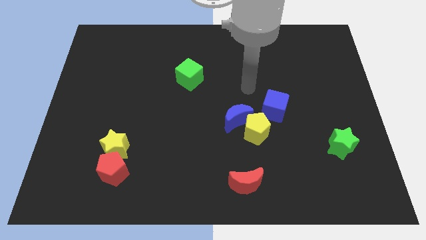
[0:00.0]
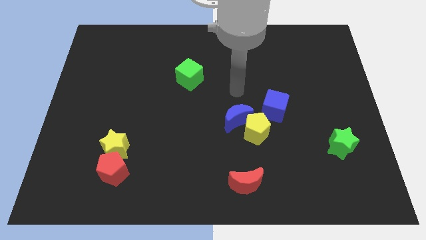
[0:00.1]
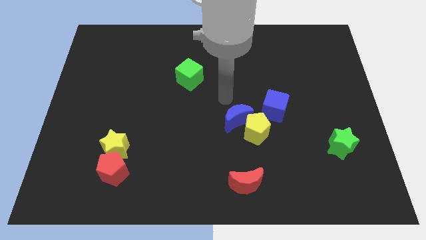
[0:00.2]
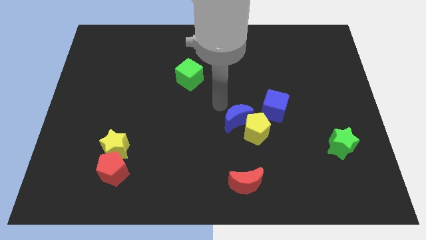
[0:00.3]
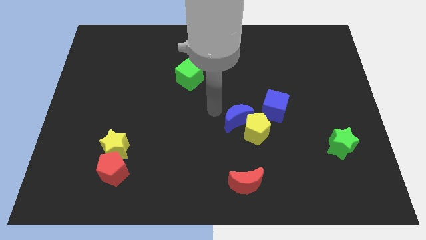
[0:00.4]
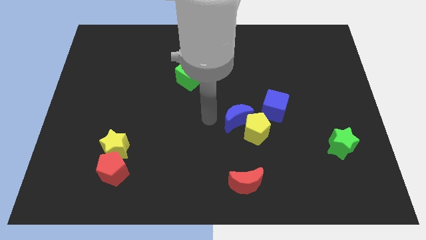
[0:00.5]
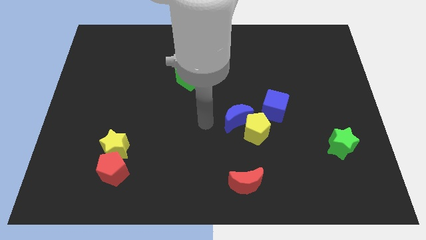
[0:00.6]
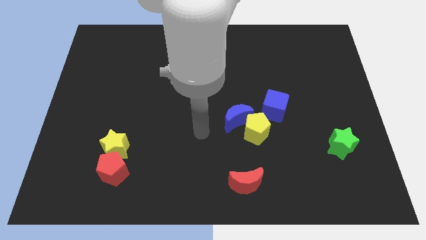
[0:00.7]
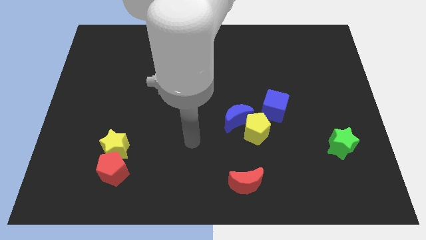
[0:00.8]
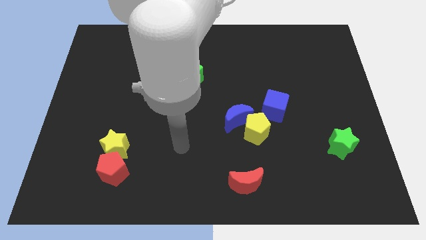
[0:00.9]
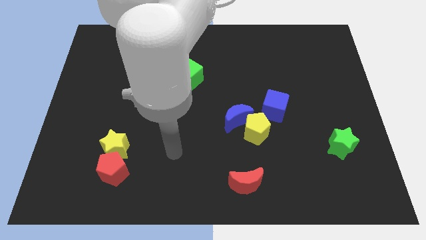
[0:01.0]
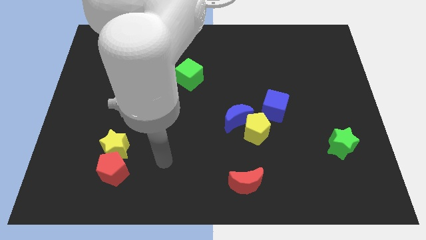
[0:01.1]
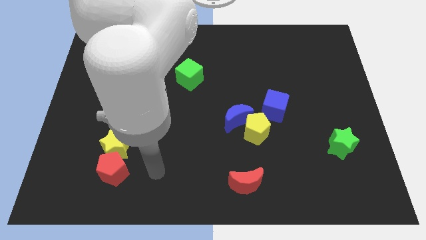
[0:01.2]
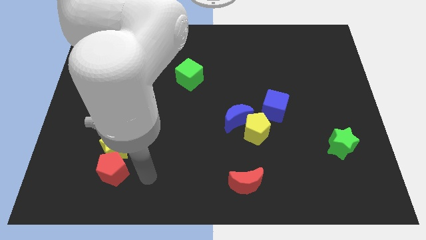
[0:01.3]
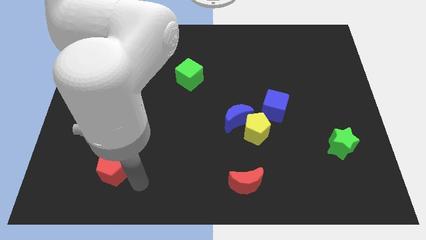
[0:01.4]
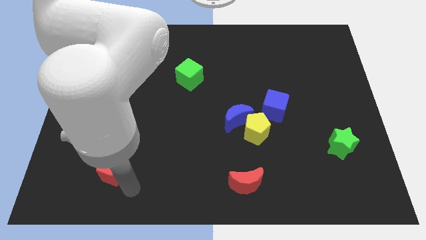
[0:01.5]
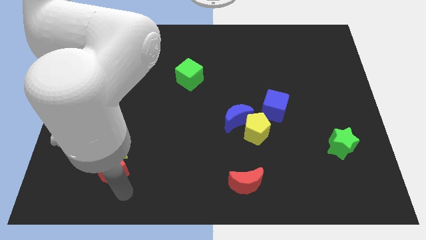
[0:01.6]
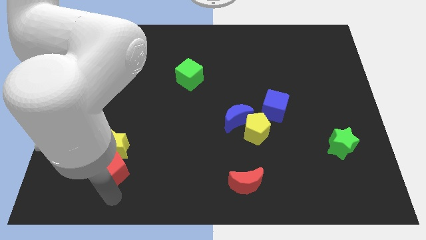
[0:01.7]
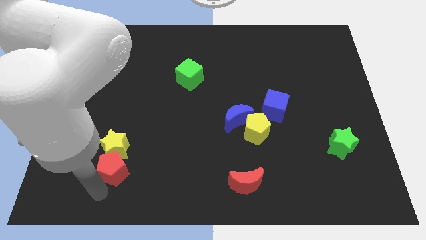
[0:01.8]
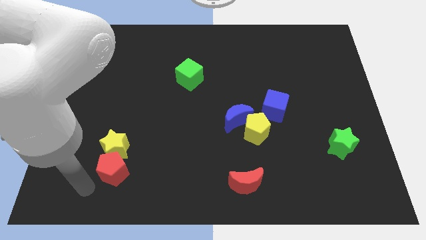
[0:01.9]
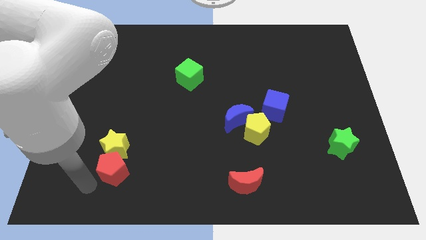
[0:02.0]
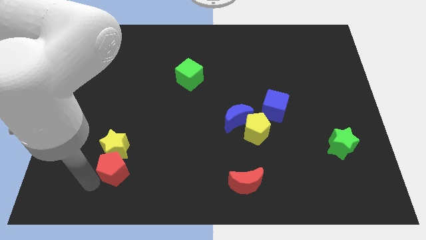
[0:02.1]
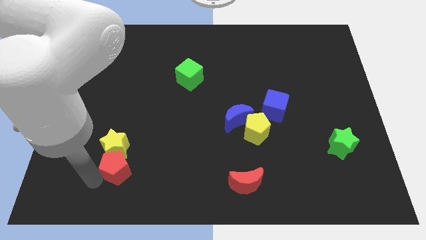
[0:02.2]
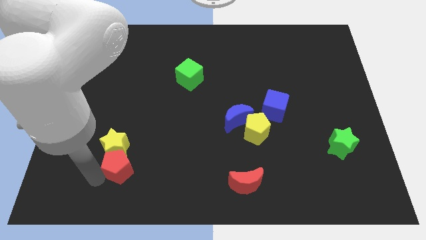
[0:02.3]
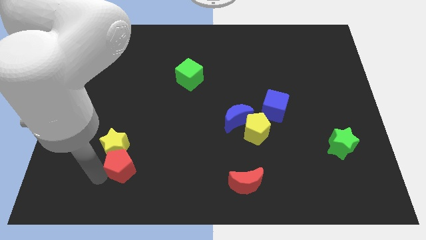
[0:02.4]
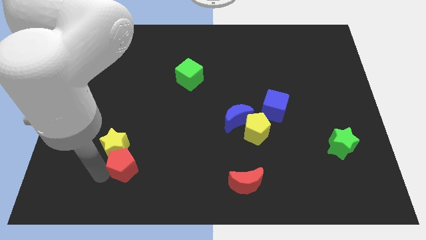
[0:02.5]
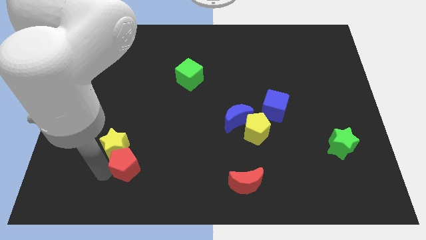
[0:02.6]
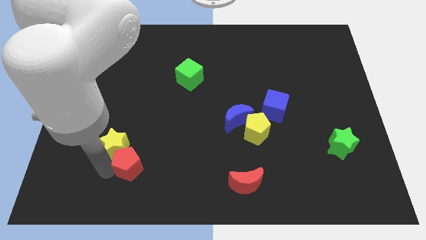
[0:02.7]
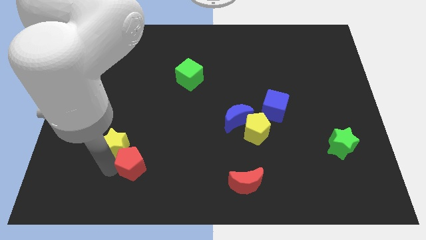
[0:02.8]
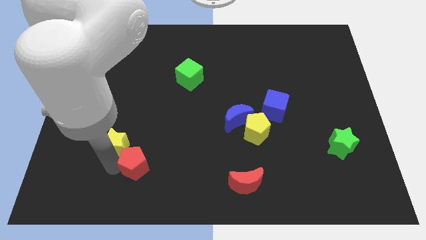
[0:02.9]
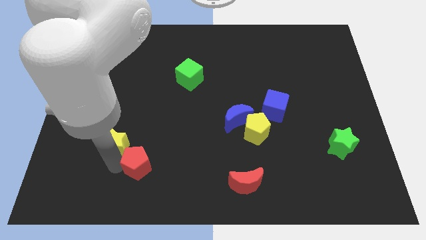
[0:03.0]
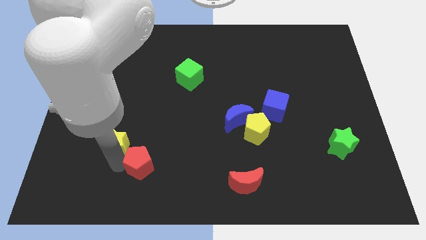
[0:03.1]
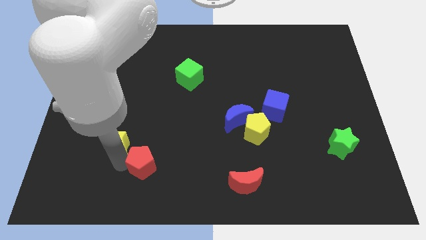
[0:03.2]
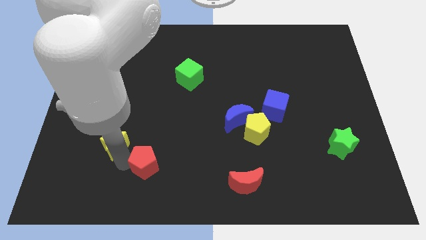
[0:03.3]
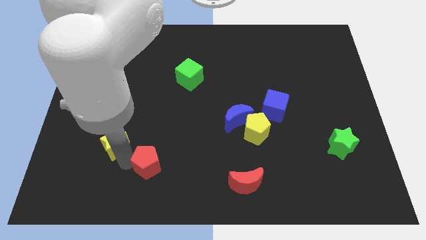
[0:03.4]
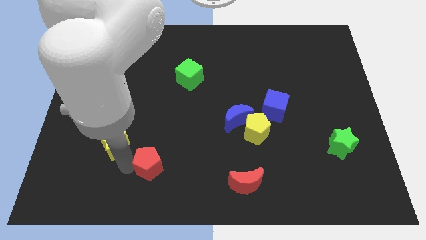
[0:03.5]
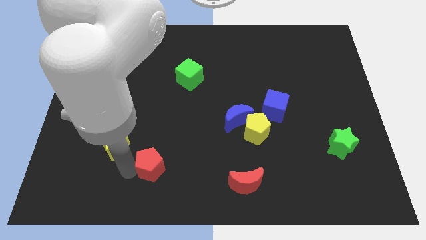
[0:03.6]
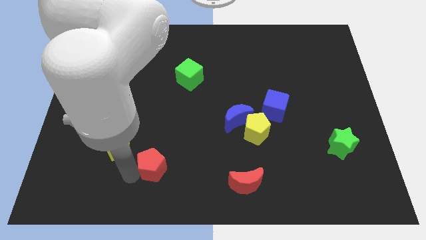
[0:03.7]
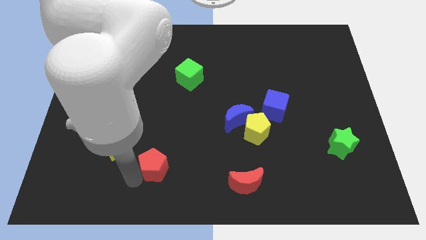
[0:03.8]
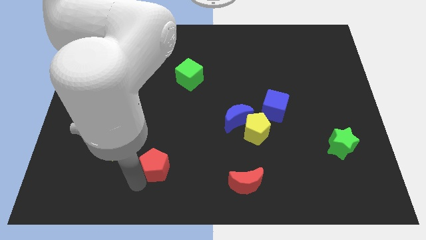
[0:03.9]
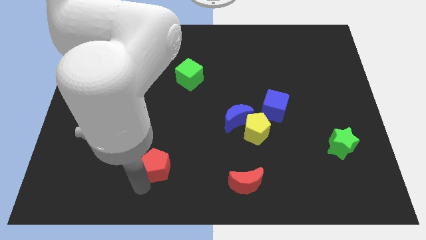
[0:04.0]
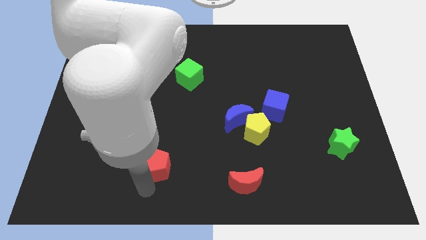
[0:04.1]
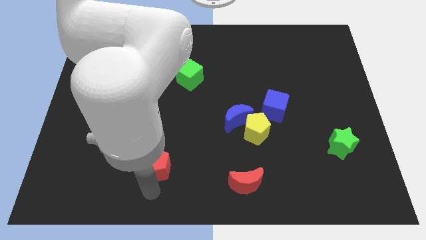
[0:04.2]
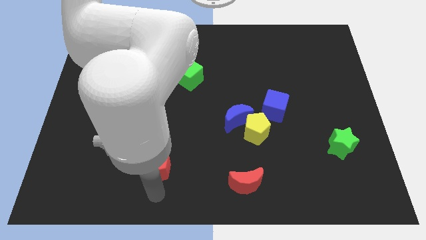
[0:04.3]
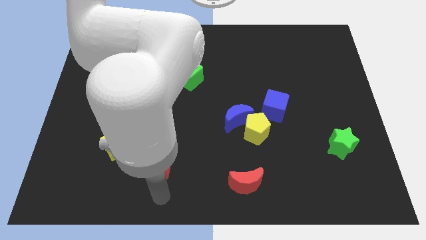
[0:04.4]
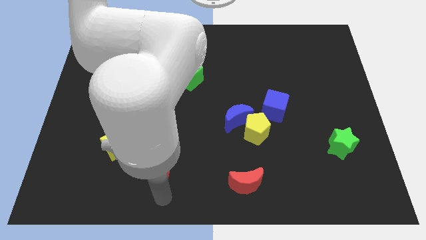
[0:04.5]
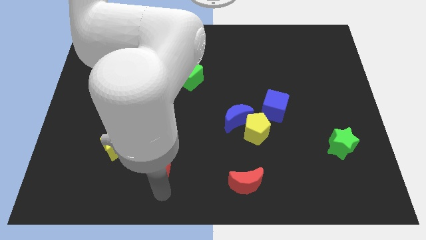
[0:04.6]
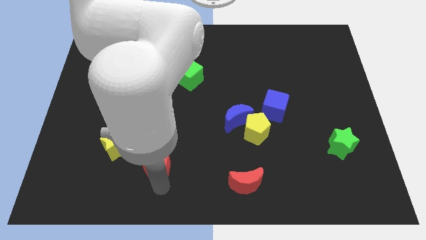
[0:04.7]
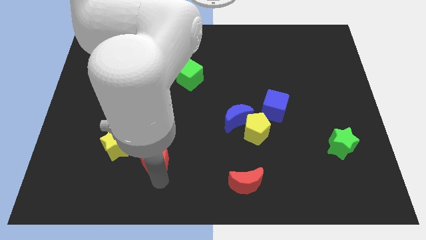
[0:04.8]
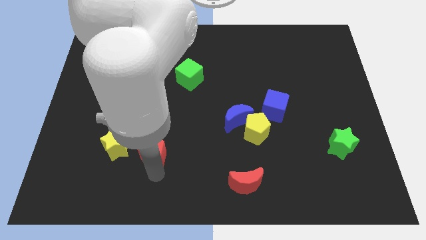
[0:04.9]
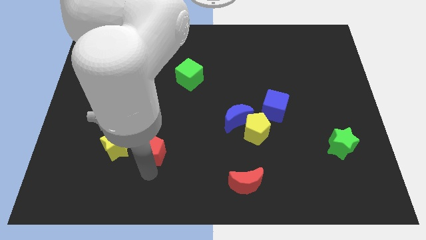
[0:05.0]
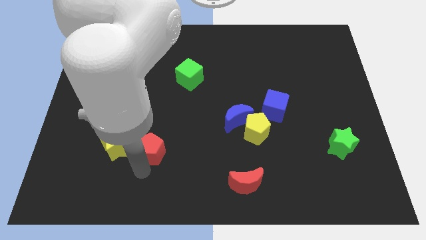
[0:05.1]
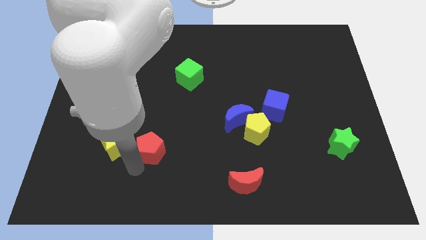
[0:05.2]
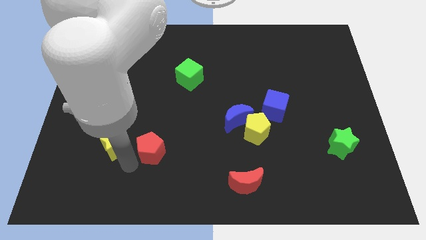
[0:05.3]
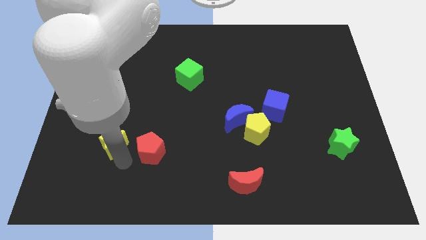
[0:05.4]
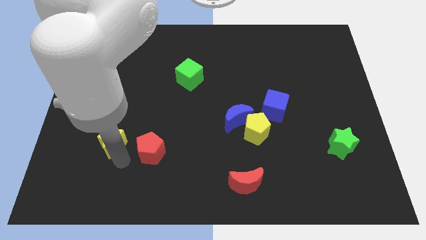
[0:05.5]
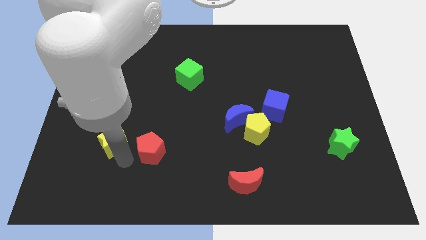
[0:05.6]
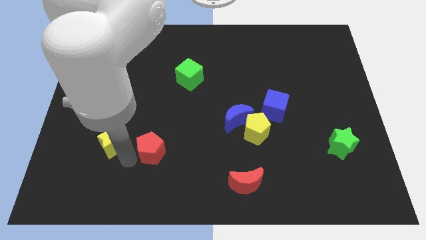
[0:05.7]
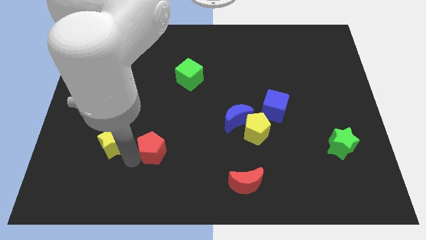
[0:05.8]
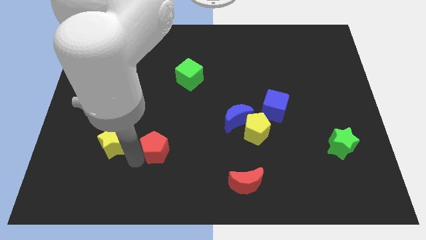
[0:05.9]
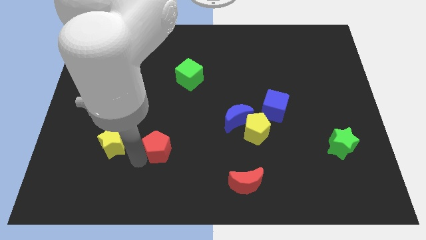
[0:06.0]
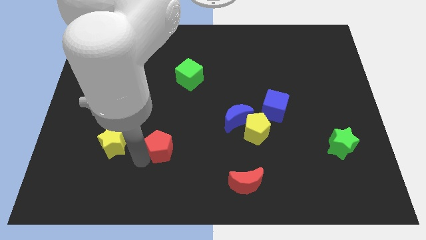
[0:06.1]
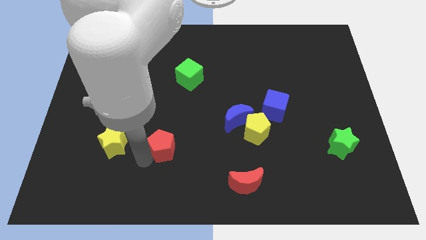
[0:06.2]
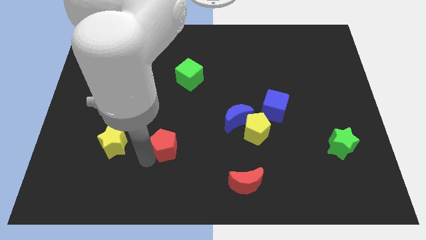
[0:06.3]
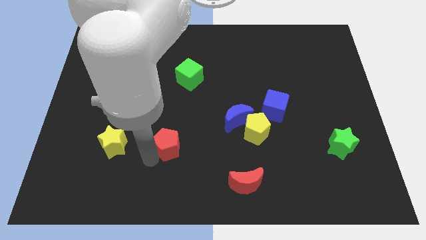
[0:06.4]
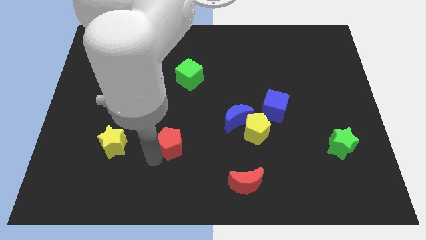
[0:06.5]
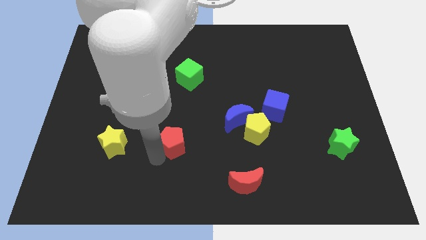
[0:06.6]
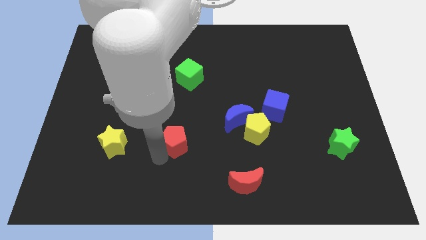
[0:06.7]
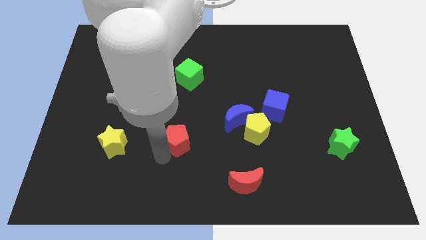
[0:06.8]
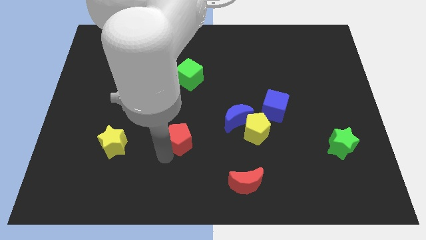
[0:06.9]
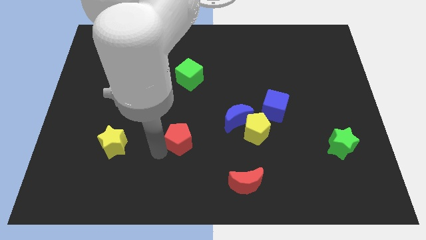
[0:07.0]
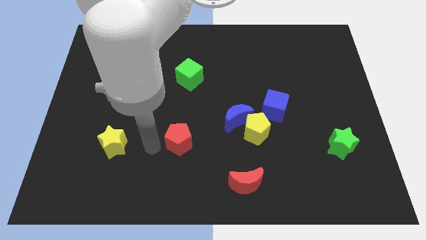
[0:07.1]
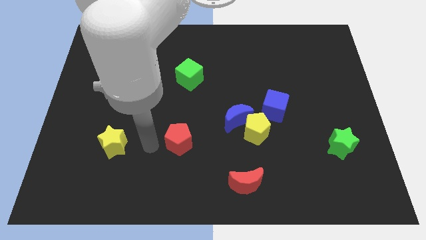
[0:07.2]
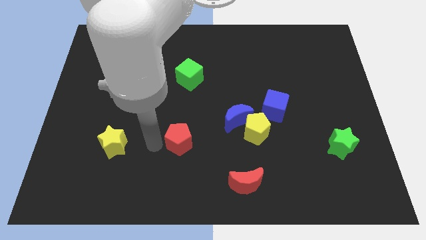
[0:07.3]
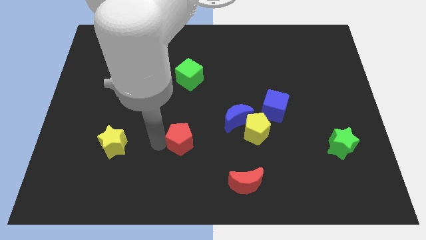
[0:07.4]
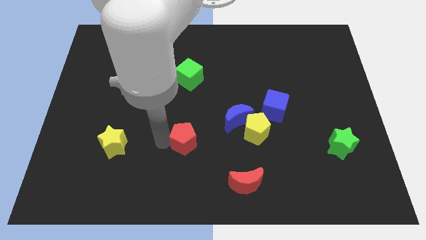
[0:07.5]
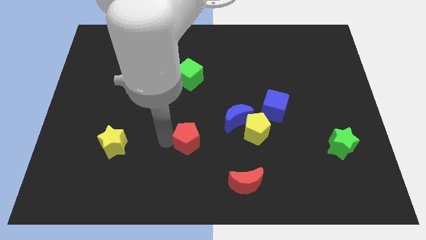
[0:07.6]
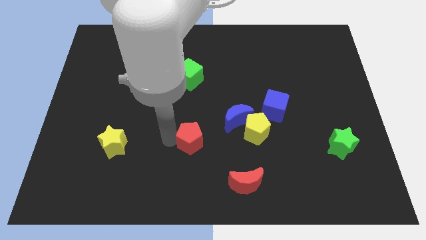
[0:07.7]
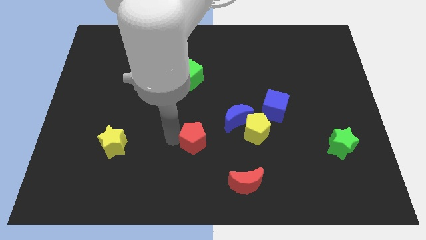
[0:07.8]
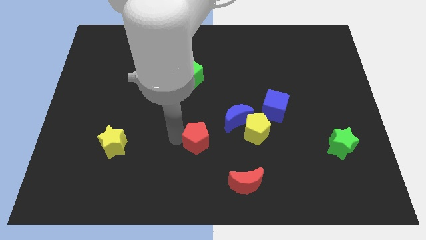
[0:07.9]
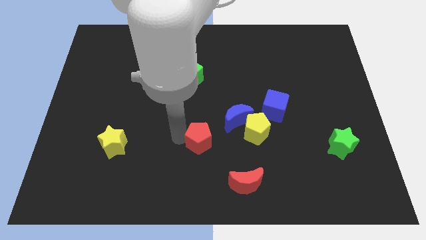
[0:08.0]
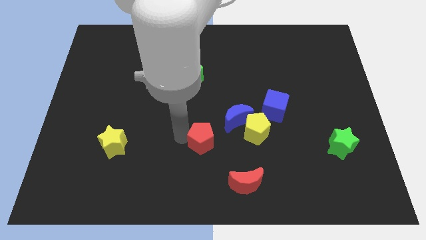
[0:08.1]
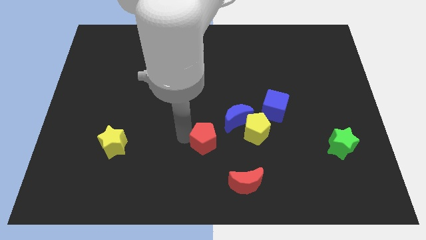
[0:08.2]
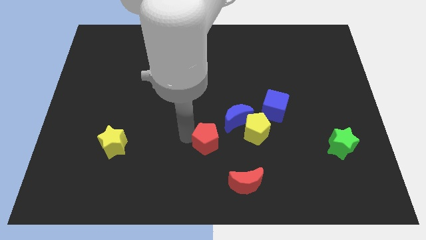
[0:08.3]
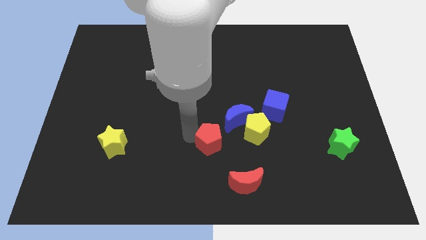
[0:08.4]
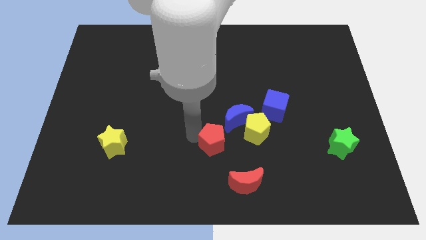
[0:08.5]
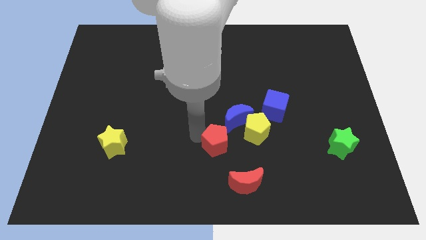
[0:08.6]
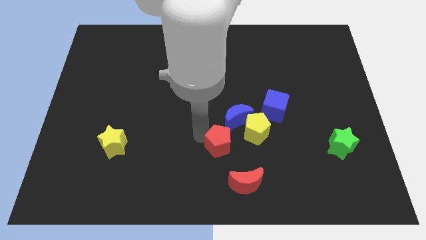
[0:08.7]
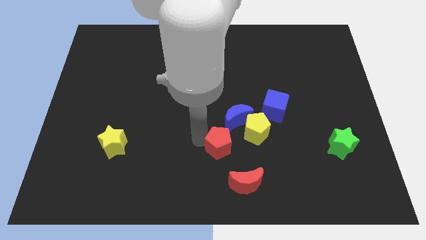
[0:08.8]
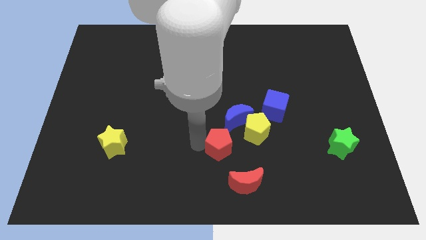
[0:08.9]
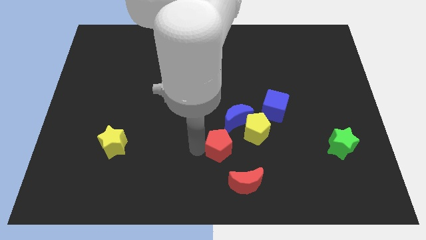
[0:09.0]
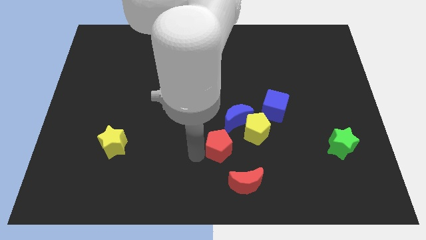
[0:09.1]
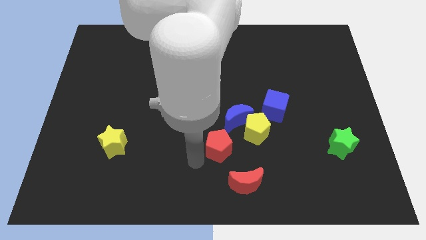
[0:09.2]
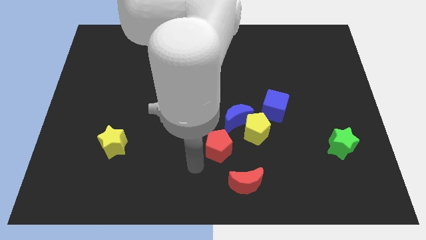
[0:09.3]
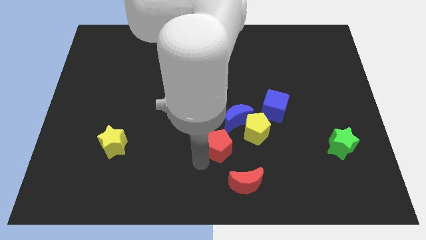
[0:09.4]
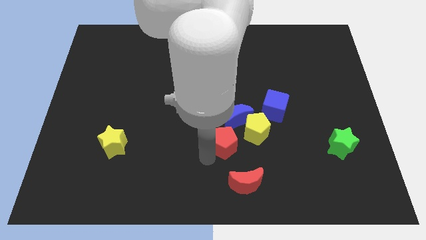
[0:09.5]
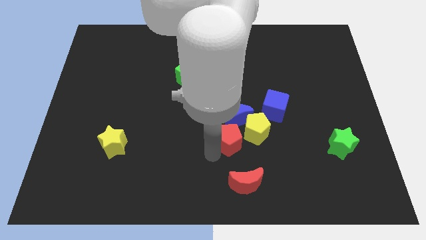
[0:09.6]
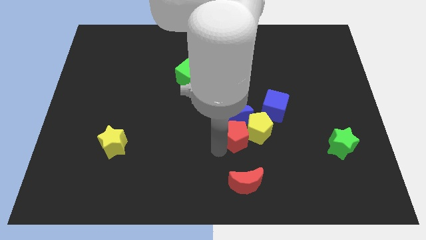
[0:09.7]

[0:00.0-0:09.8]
push the red pentagon to the yellow pentagon
